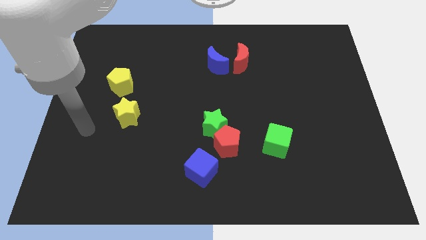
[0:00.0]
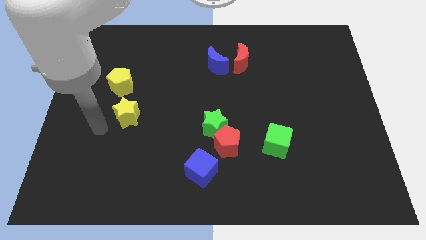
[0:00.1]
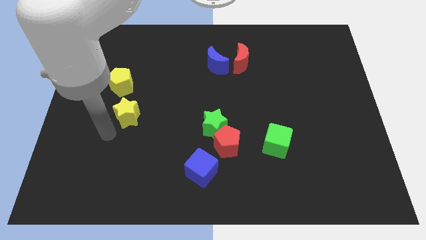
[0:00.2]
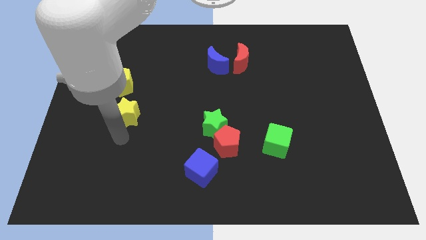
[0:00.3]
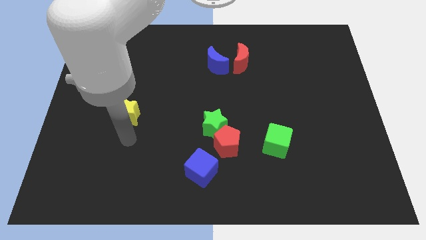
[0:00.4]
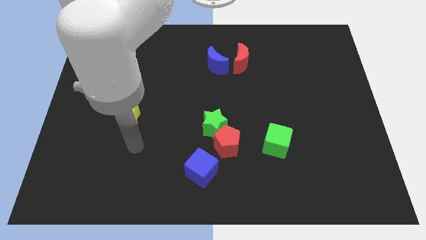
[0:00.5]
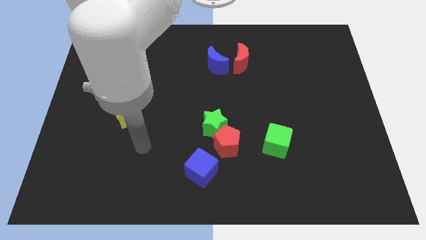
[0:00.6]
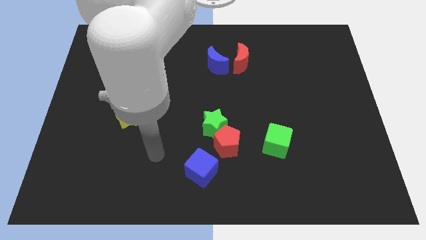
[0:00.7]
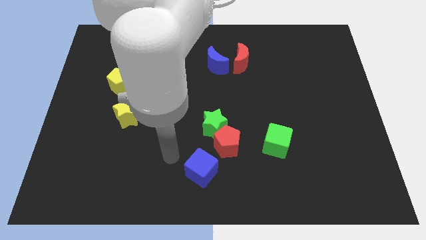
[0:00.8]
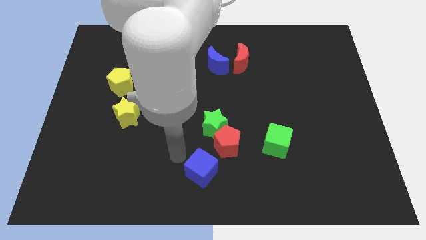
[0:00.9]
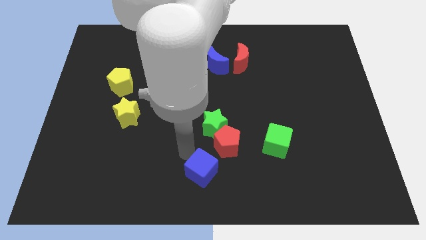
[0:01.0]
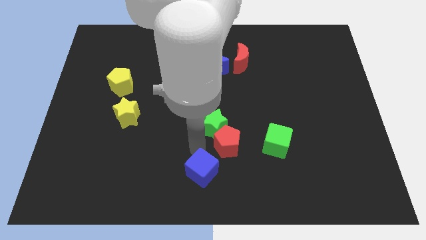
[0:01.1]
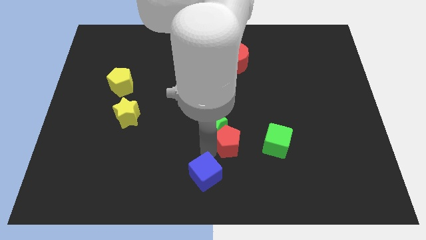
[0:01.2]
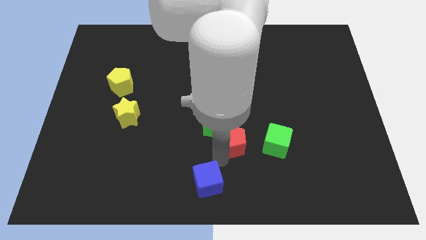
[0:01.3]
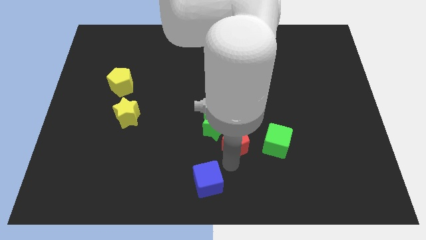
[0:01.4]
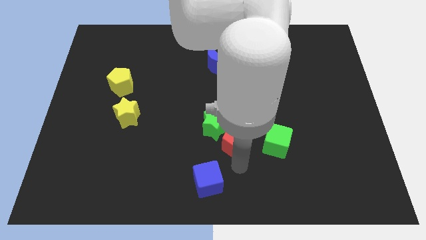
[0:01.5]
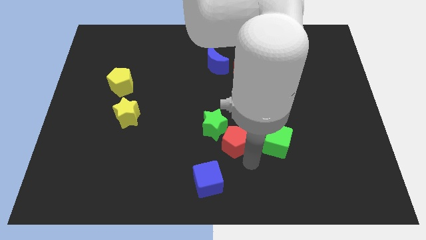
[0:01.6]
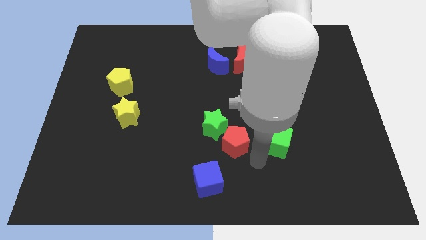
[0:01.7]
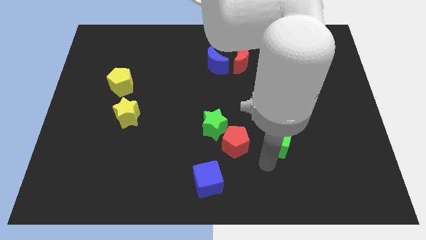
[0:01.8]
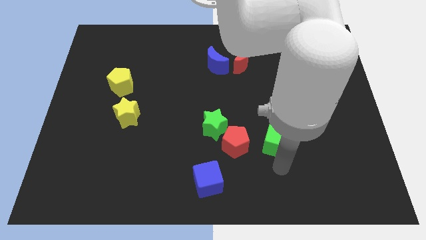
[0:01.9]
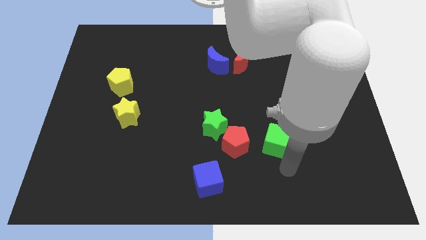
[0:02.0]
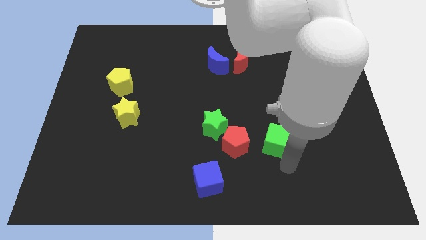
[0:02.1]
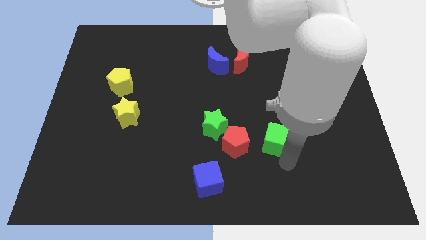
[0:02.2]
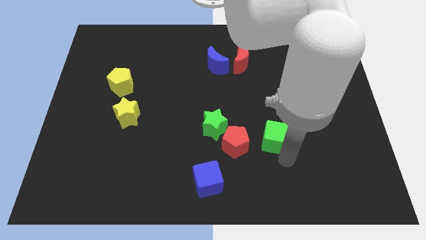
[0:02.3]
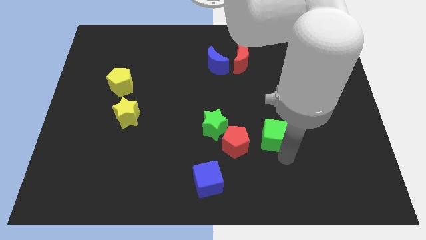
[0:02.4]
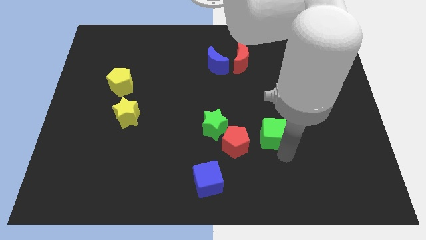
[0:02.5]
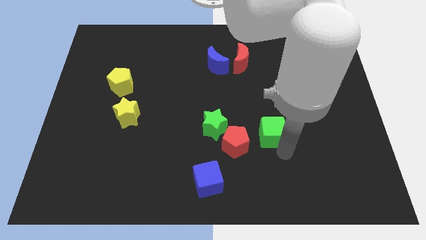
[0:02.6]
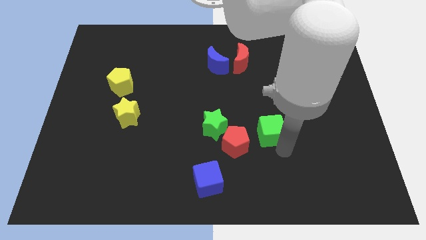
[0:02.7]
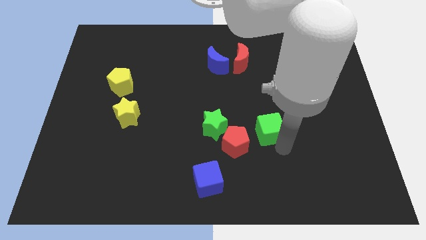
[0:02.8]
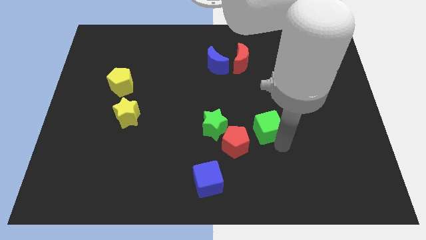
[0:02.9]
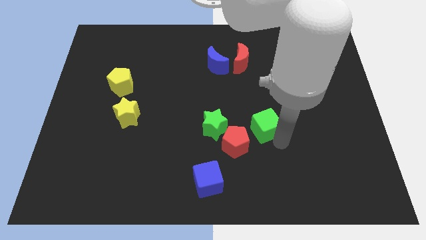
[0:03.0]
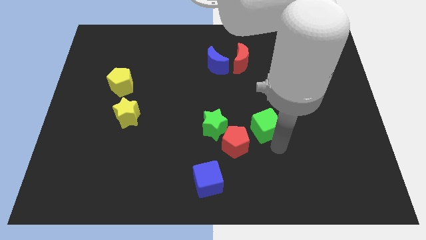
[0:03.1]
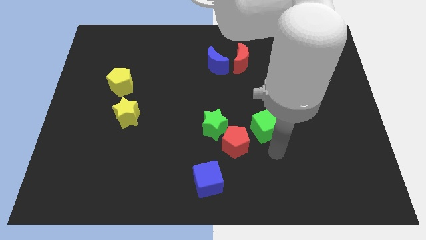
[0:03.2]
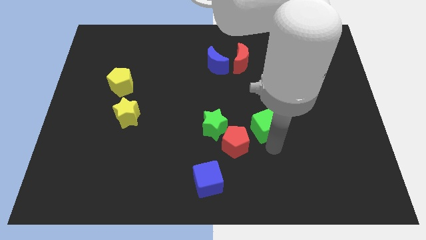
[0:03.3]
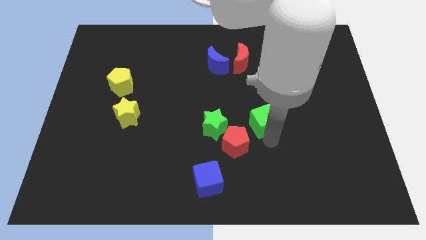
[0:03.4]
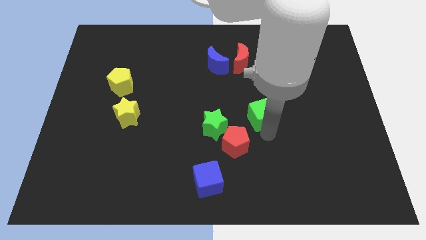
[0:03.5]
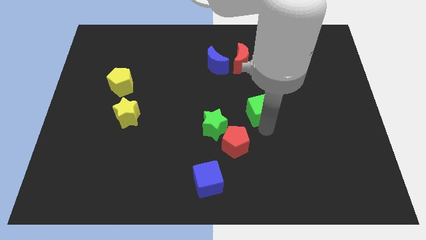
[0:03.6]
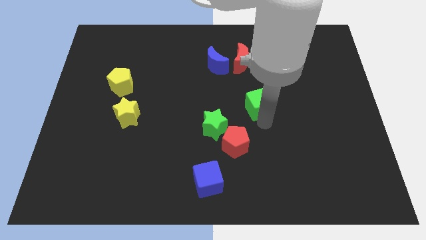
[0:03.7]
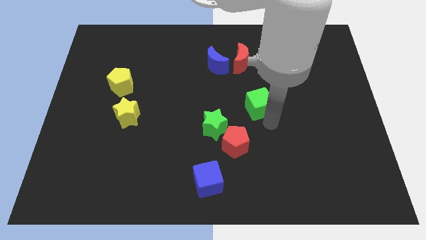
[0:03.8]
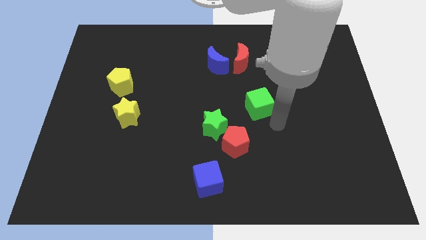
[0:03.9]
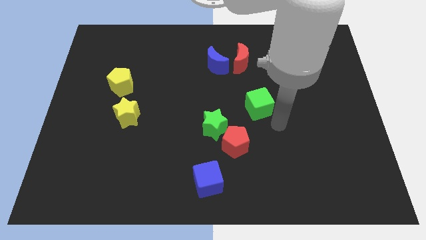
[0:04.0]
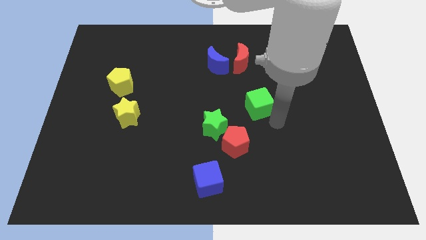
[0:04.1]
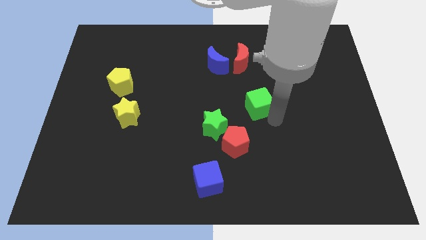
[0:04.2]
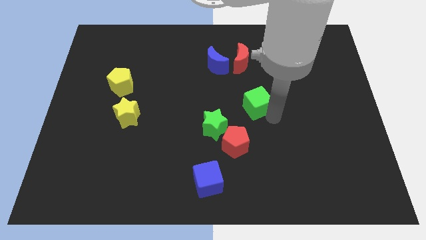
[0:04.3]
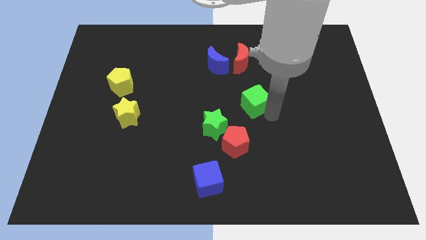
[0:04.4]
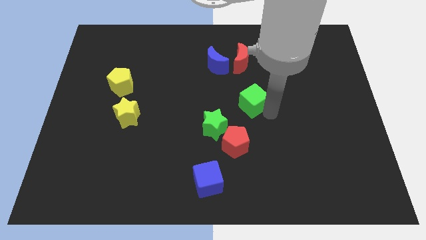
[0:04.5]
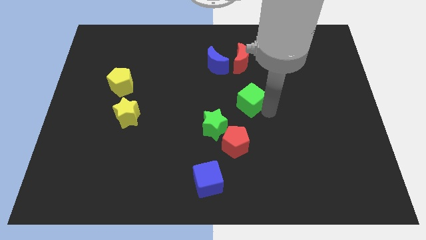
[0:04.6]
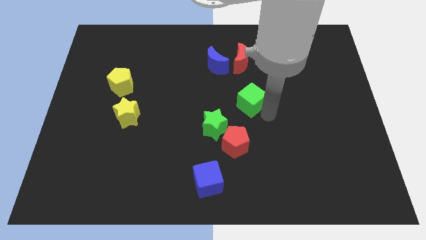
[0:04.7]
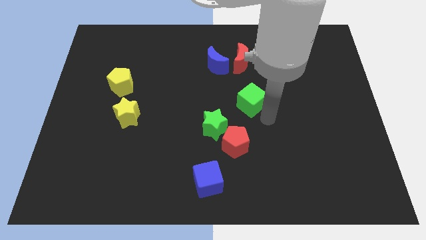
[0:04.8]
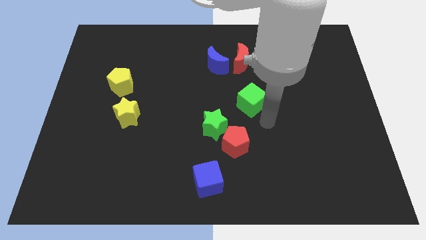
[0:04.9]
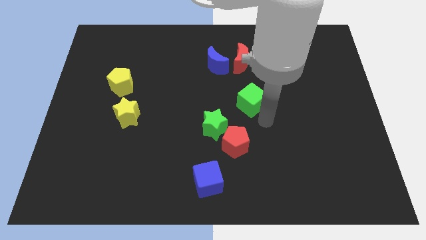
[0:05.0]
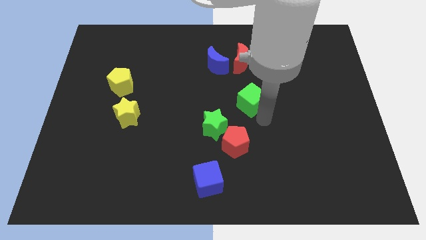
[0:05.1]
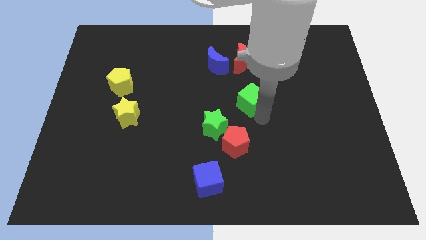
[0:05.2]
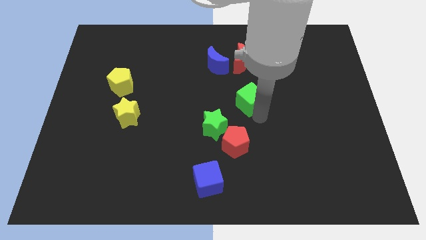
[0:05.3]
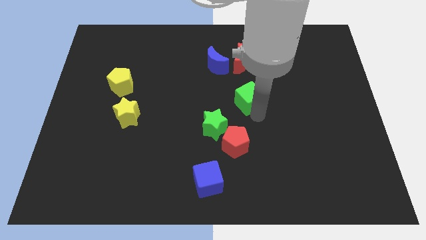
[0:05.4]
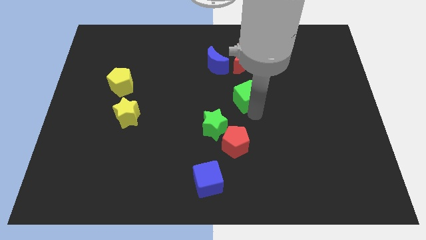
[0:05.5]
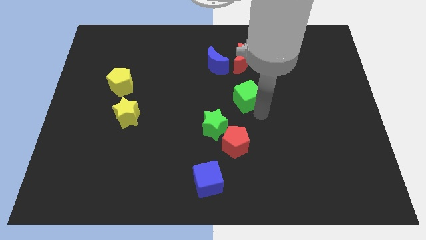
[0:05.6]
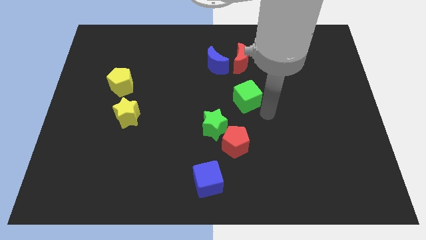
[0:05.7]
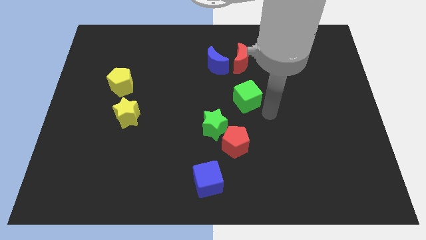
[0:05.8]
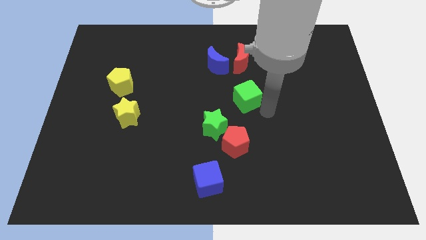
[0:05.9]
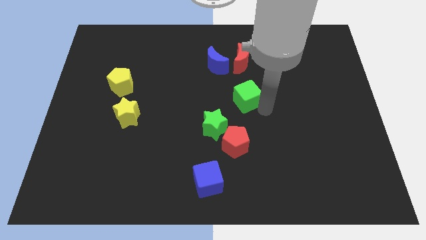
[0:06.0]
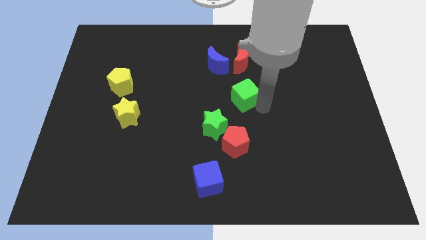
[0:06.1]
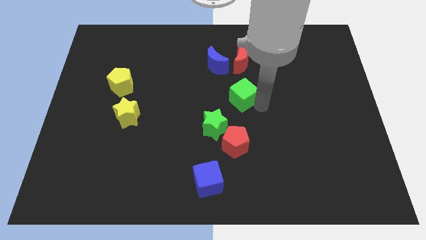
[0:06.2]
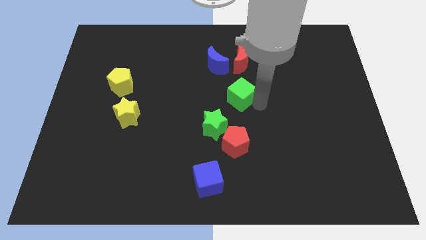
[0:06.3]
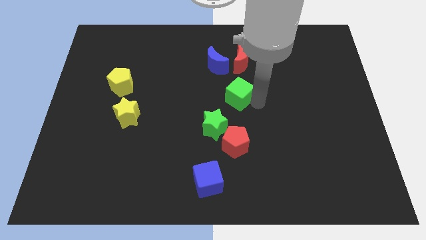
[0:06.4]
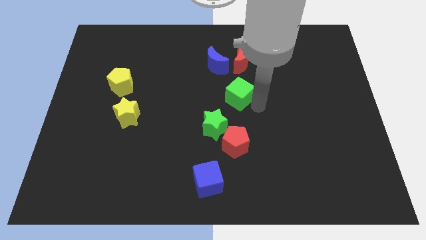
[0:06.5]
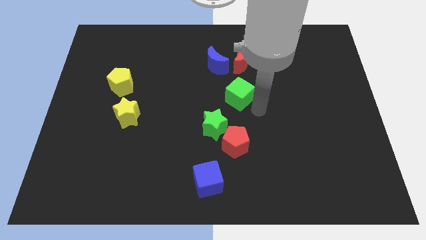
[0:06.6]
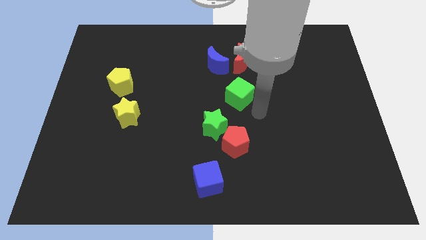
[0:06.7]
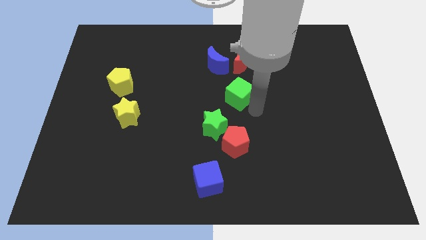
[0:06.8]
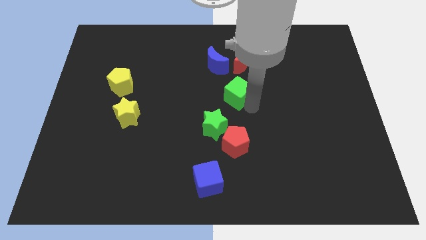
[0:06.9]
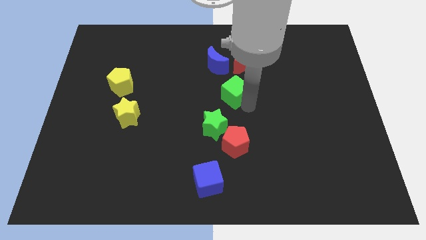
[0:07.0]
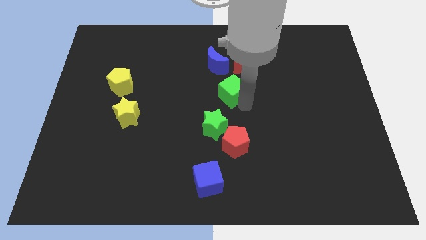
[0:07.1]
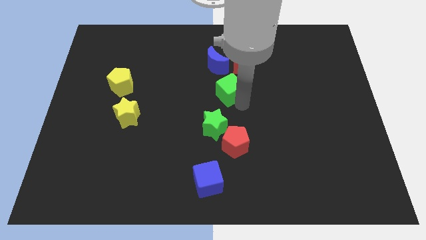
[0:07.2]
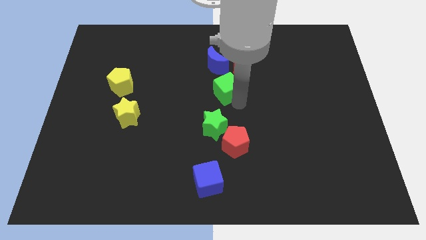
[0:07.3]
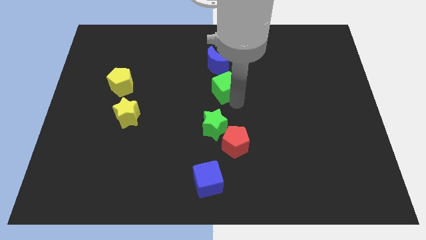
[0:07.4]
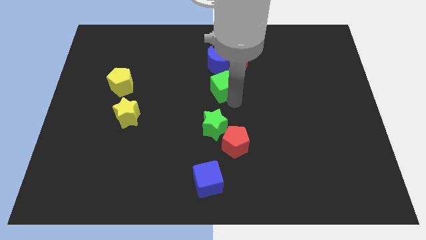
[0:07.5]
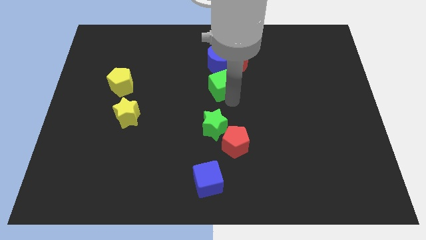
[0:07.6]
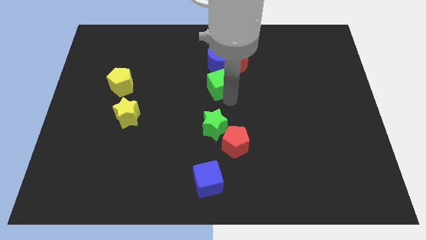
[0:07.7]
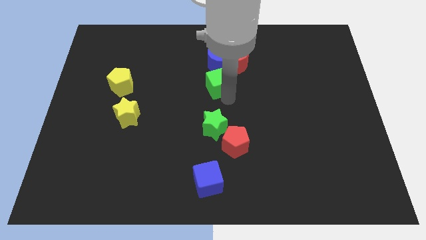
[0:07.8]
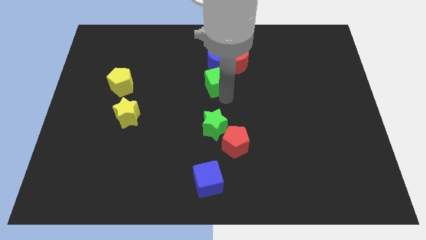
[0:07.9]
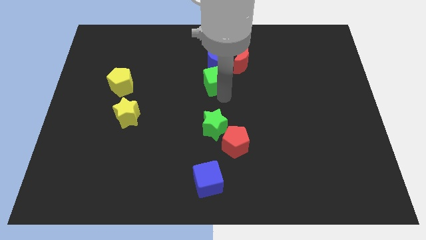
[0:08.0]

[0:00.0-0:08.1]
put the green cube next to the blue moon
